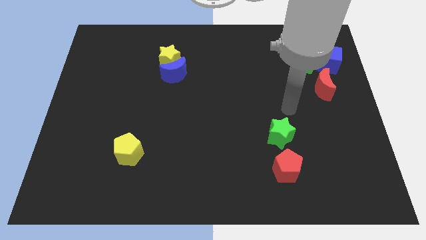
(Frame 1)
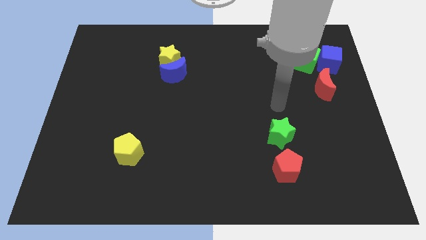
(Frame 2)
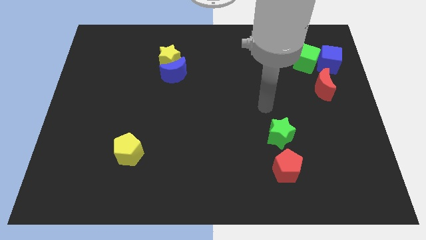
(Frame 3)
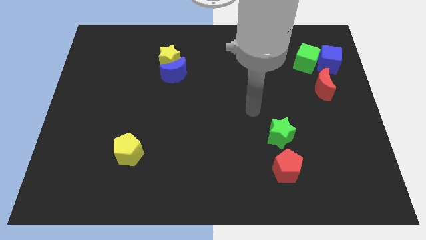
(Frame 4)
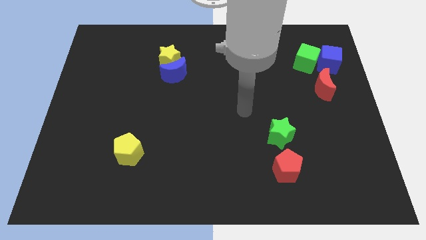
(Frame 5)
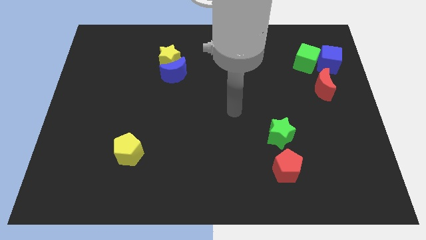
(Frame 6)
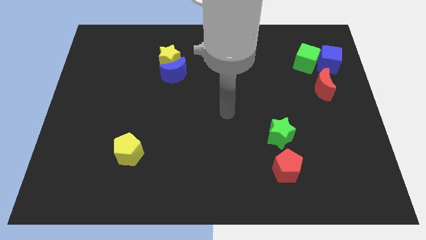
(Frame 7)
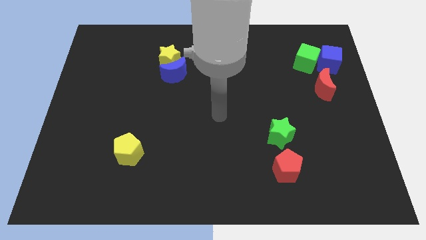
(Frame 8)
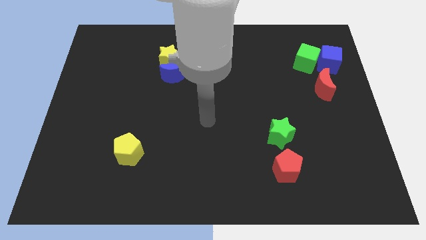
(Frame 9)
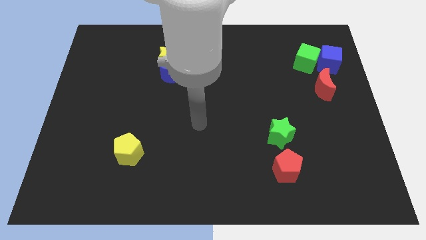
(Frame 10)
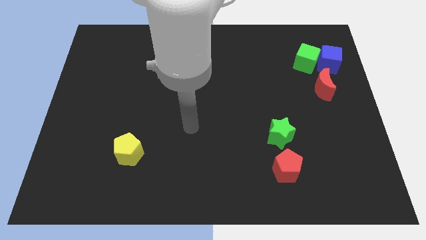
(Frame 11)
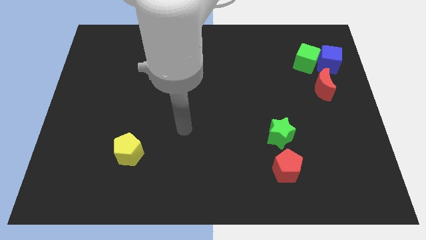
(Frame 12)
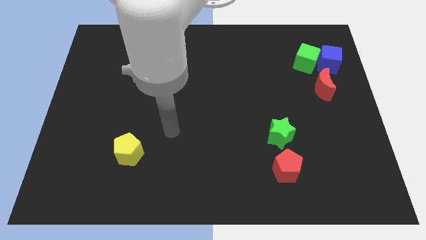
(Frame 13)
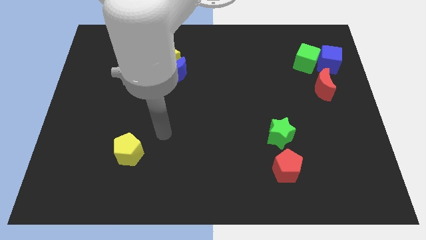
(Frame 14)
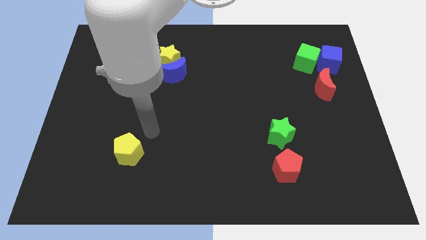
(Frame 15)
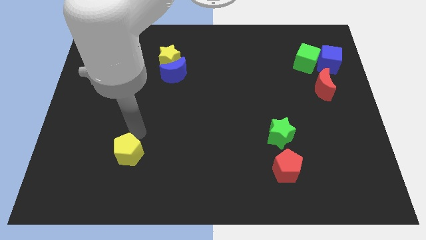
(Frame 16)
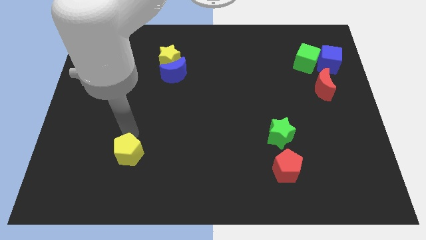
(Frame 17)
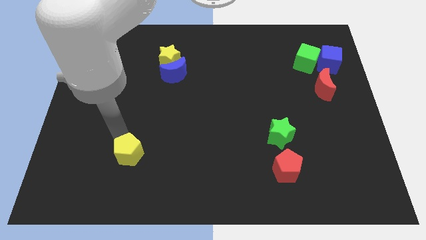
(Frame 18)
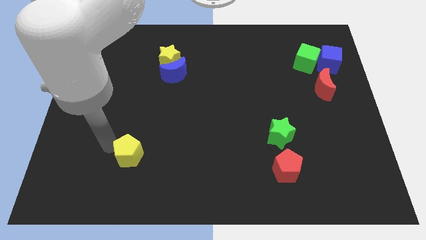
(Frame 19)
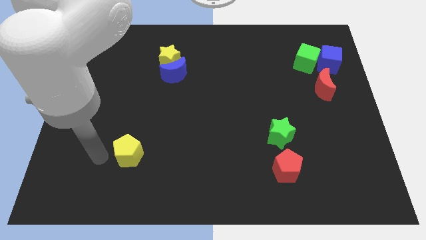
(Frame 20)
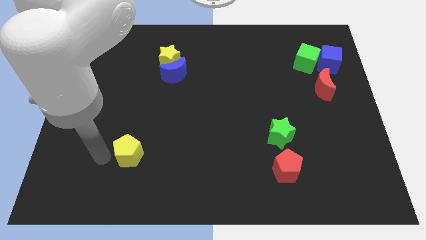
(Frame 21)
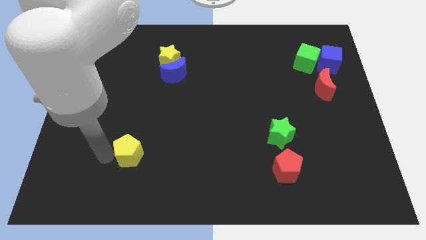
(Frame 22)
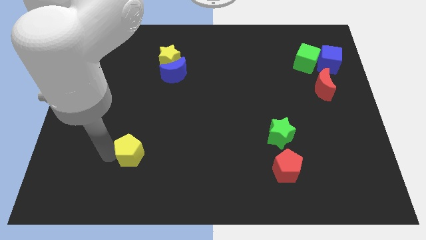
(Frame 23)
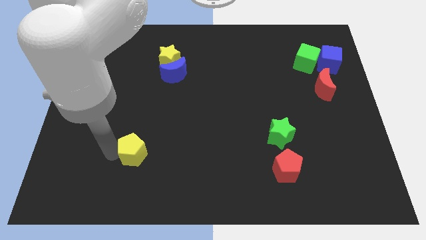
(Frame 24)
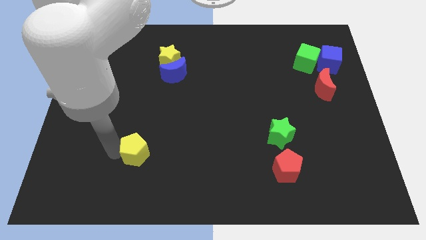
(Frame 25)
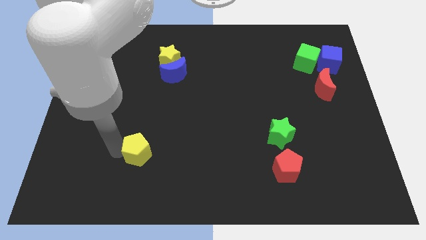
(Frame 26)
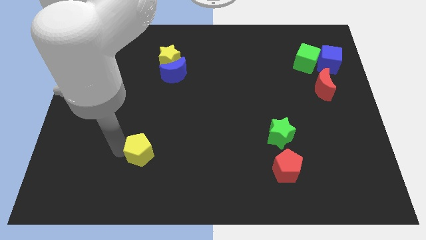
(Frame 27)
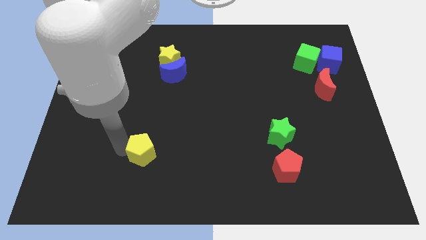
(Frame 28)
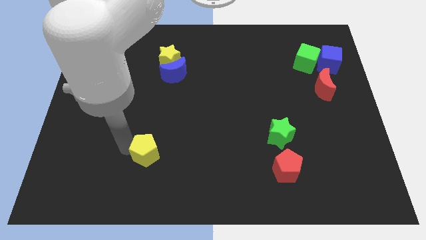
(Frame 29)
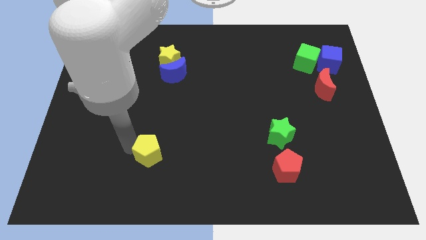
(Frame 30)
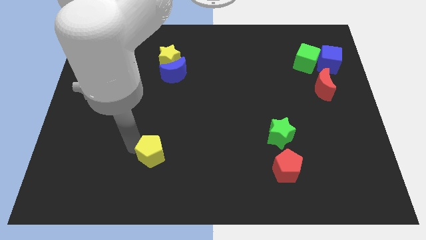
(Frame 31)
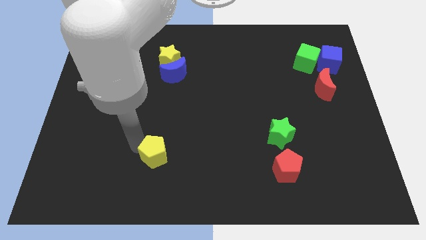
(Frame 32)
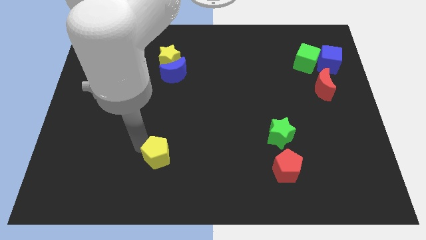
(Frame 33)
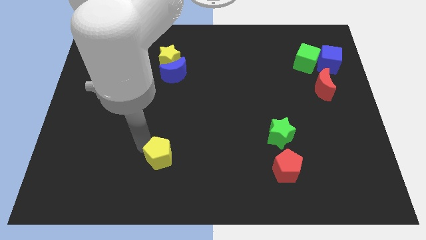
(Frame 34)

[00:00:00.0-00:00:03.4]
push the yellow pentagon somewhat to the right

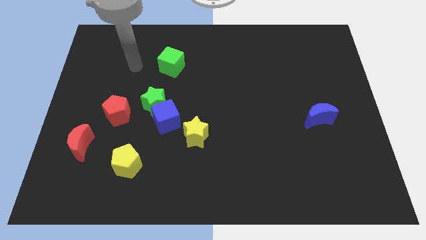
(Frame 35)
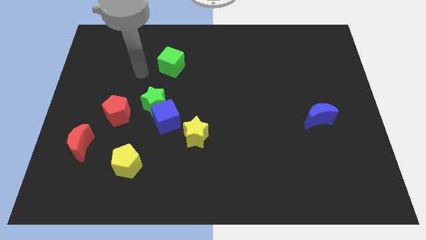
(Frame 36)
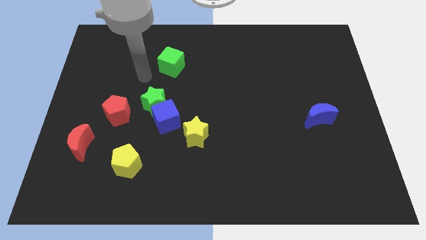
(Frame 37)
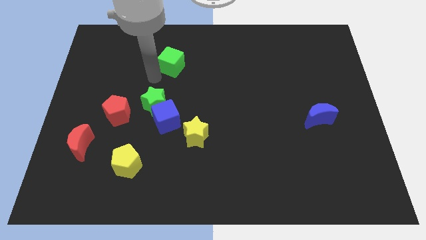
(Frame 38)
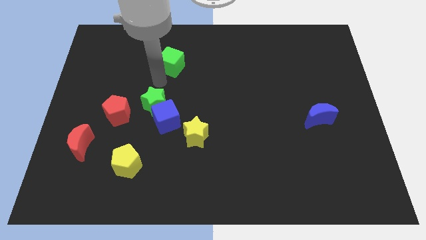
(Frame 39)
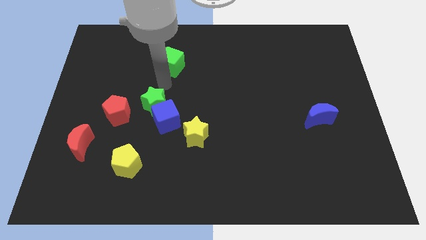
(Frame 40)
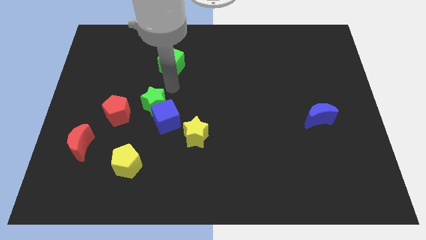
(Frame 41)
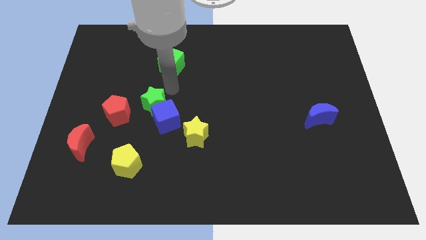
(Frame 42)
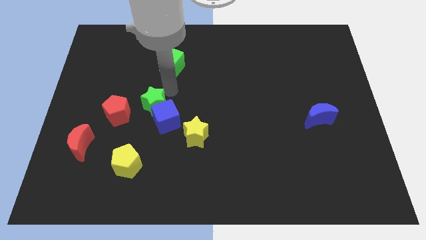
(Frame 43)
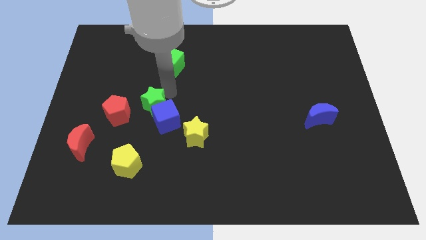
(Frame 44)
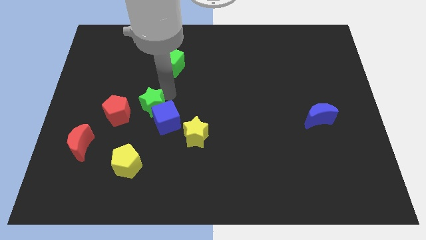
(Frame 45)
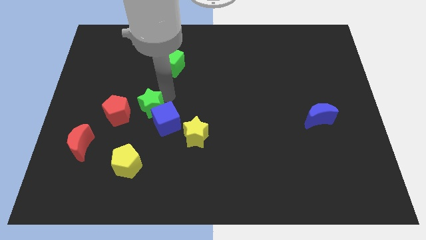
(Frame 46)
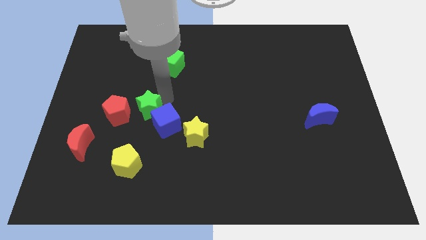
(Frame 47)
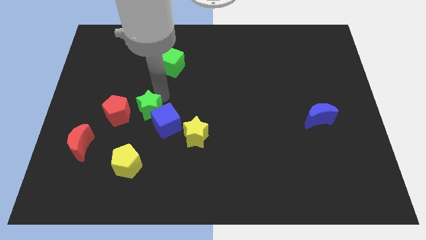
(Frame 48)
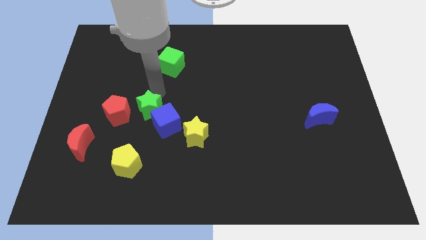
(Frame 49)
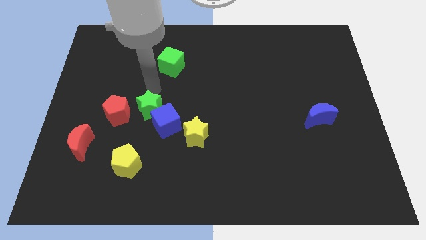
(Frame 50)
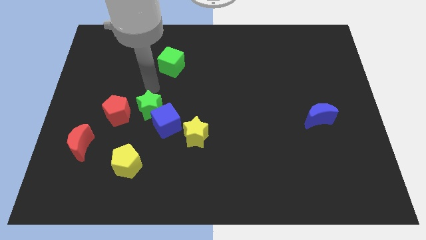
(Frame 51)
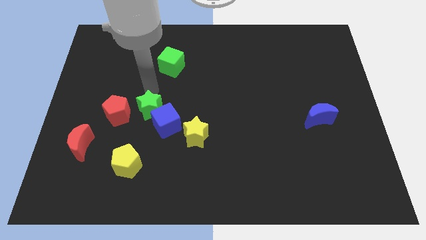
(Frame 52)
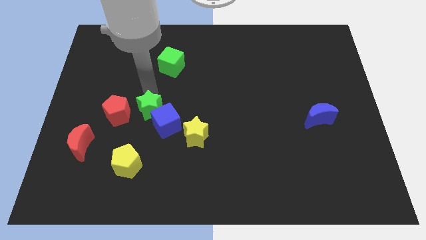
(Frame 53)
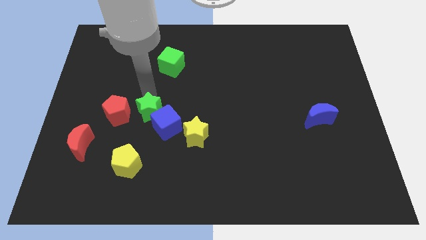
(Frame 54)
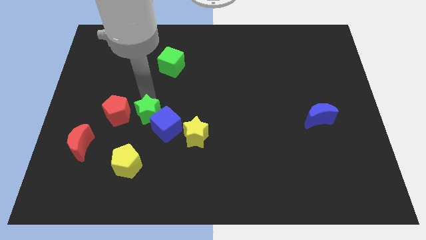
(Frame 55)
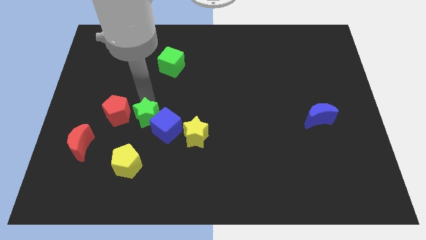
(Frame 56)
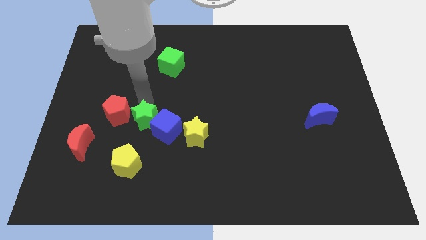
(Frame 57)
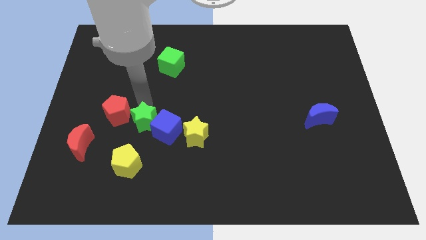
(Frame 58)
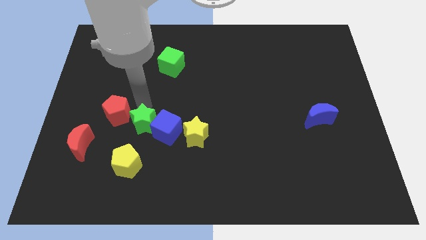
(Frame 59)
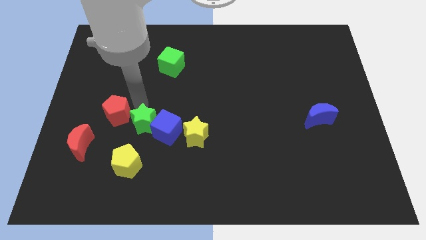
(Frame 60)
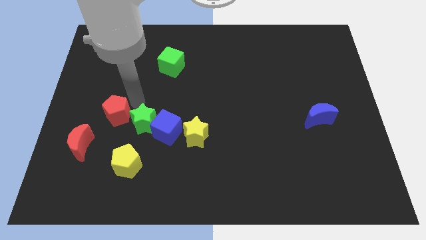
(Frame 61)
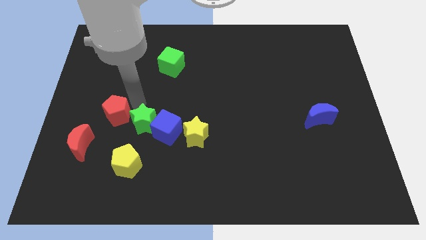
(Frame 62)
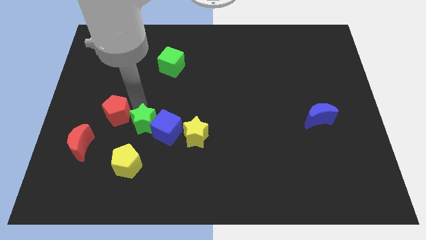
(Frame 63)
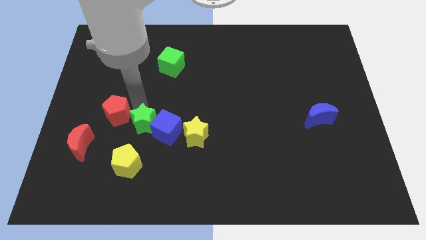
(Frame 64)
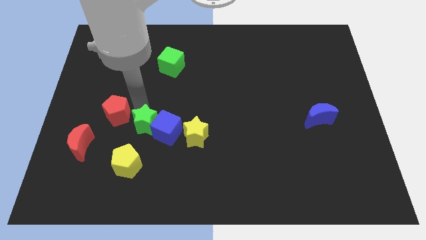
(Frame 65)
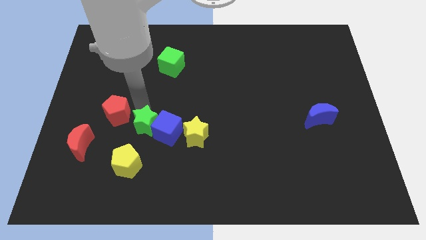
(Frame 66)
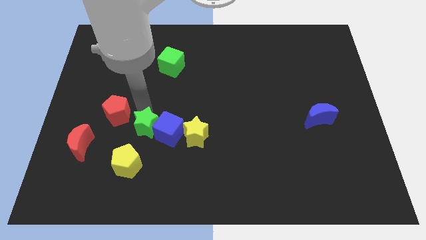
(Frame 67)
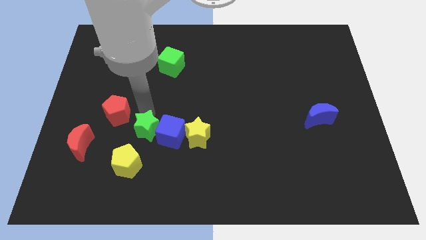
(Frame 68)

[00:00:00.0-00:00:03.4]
move the green star downwards a little

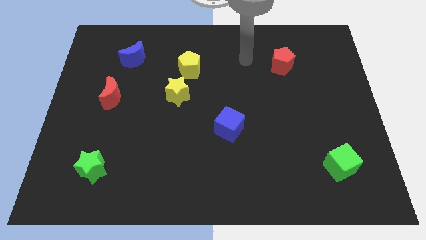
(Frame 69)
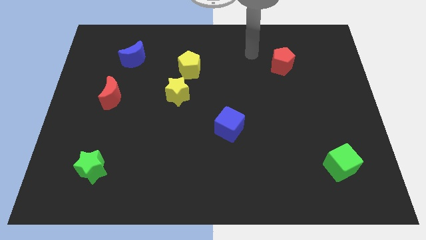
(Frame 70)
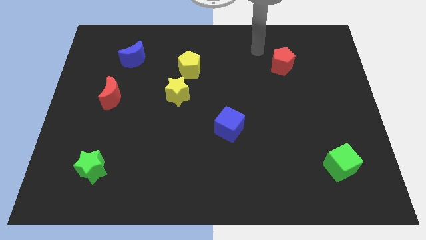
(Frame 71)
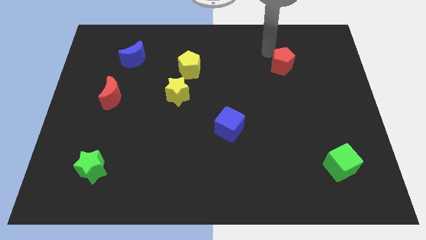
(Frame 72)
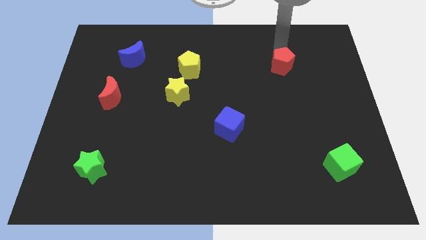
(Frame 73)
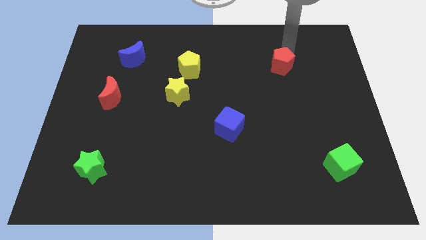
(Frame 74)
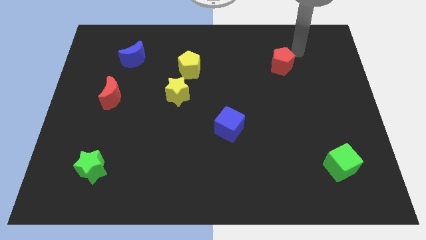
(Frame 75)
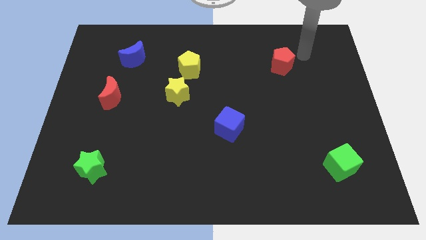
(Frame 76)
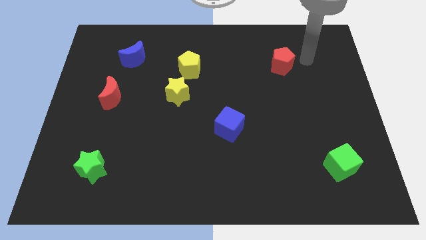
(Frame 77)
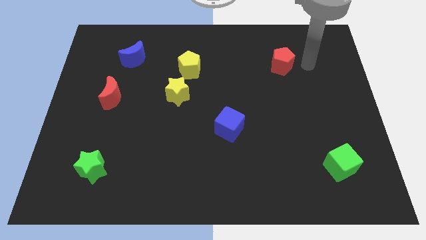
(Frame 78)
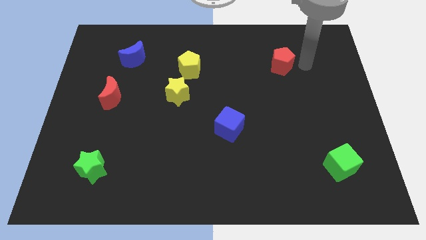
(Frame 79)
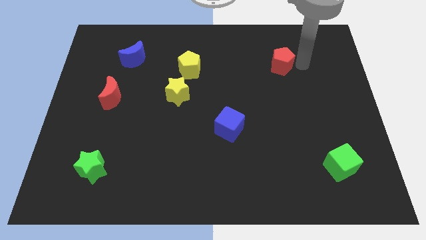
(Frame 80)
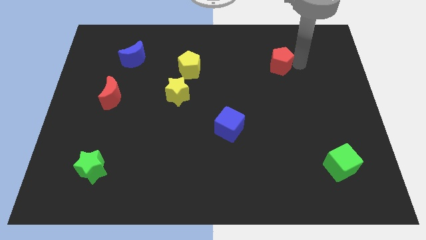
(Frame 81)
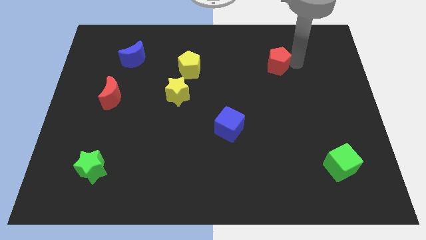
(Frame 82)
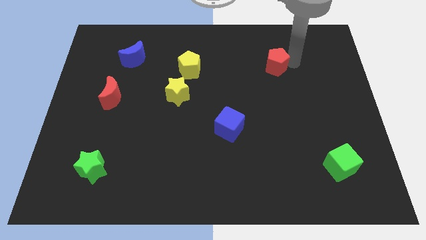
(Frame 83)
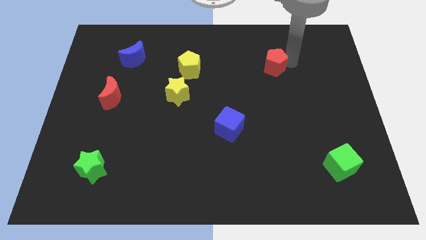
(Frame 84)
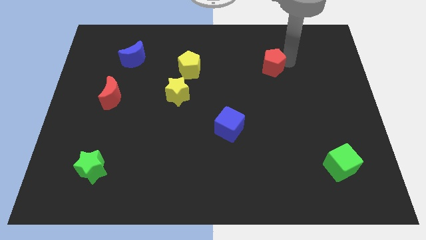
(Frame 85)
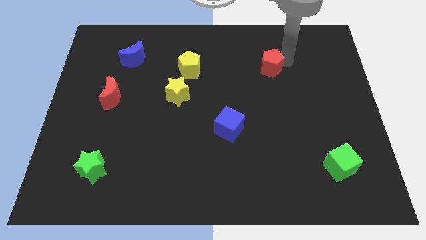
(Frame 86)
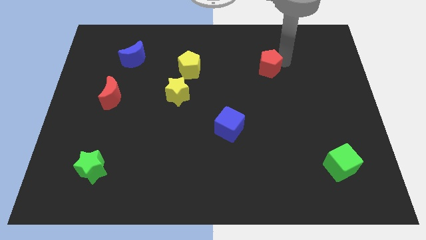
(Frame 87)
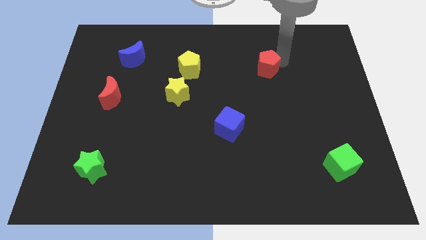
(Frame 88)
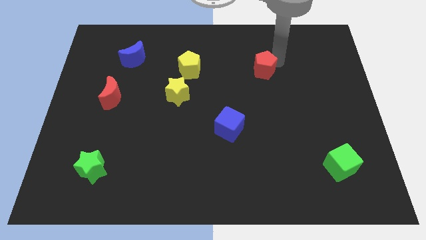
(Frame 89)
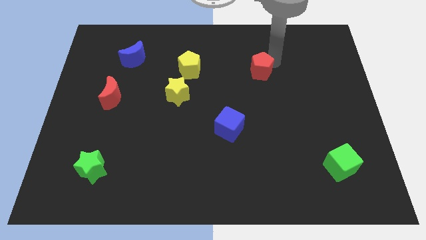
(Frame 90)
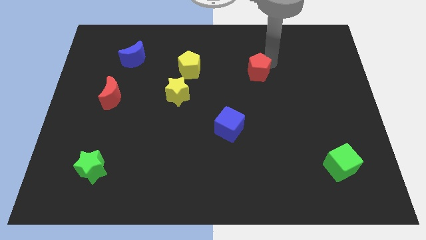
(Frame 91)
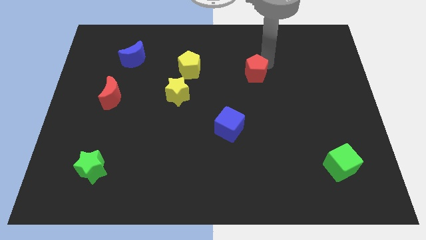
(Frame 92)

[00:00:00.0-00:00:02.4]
push the red pentagon a bit left
